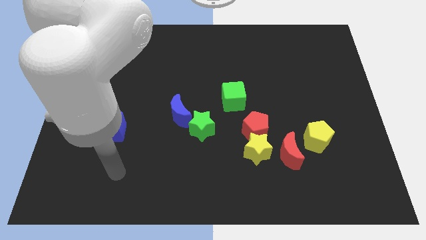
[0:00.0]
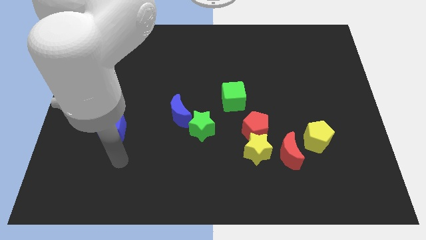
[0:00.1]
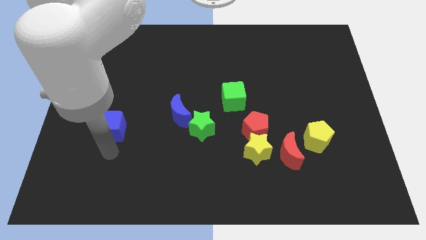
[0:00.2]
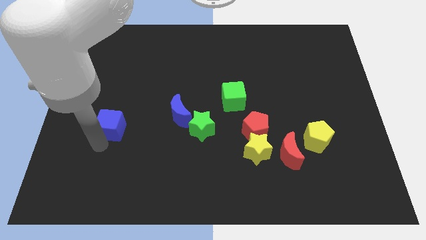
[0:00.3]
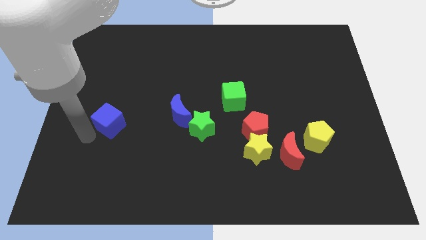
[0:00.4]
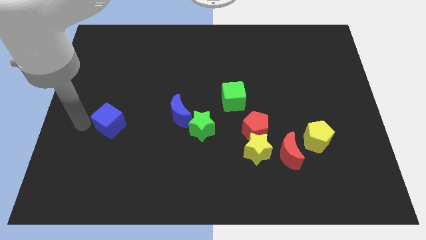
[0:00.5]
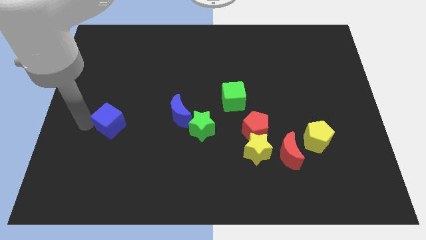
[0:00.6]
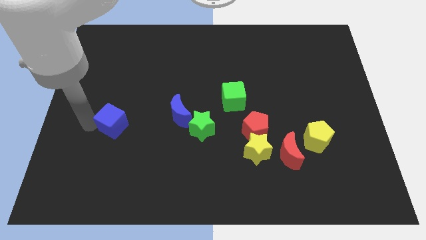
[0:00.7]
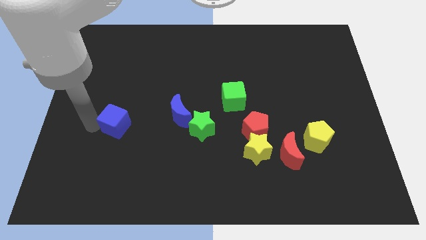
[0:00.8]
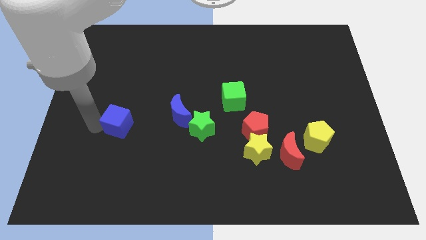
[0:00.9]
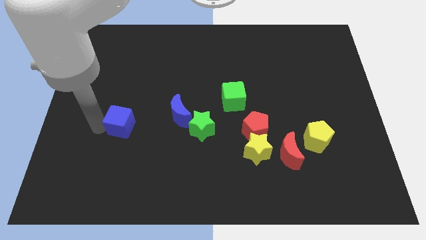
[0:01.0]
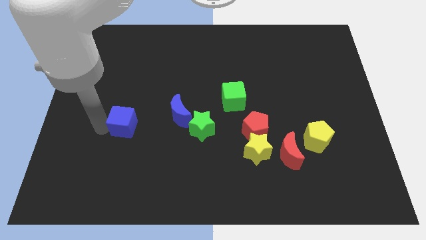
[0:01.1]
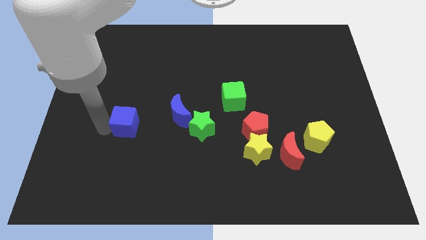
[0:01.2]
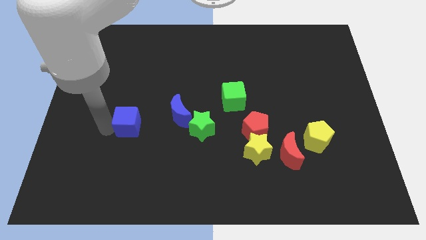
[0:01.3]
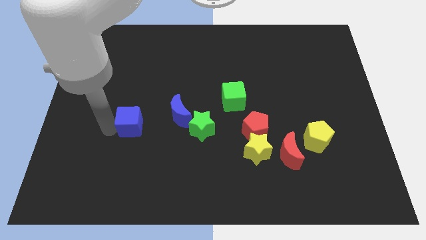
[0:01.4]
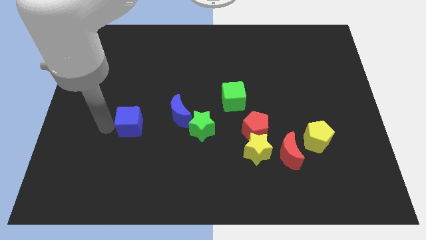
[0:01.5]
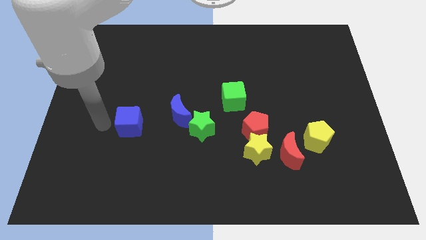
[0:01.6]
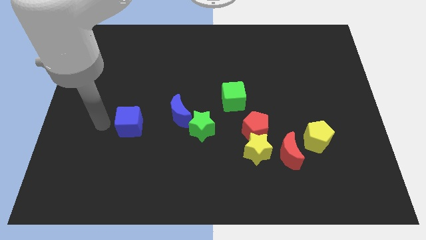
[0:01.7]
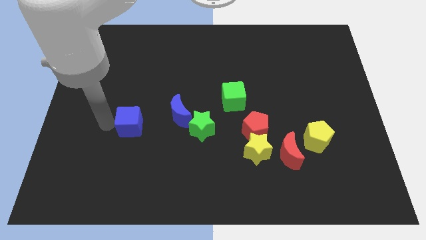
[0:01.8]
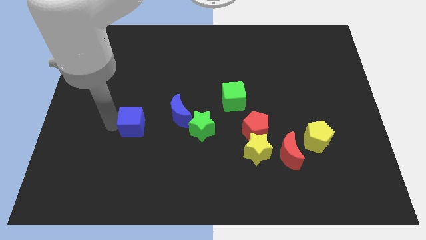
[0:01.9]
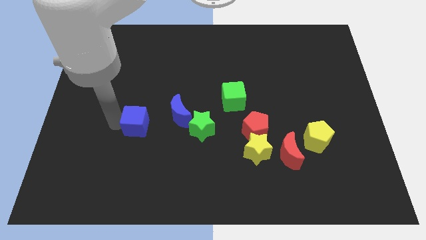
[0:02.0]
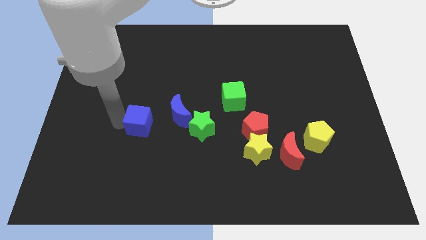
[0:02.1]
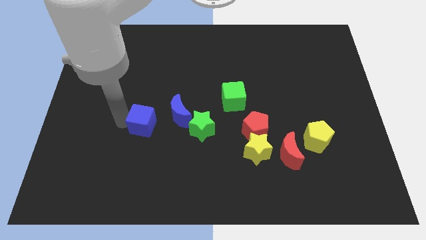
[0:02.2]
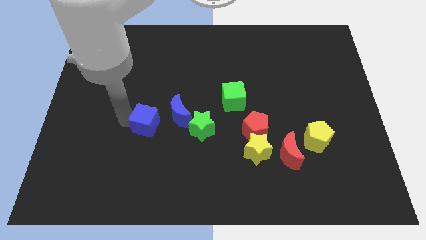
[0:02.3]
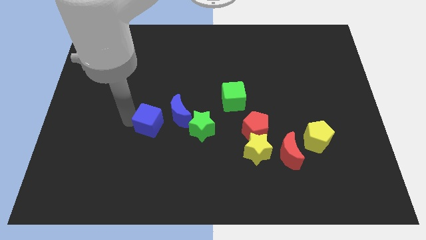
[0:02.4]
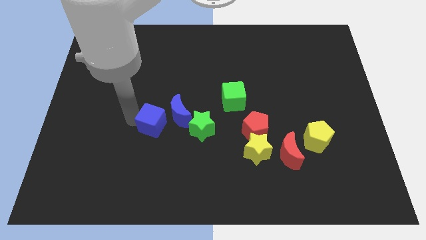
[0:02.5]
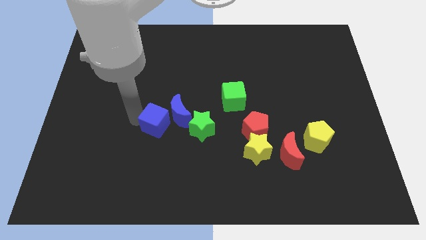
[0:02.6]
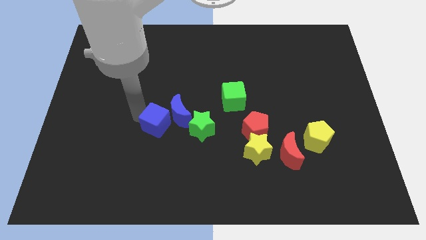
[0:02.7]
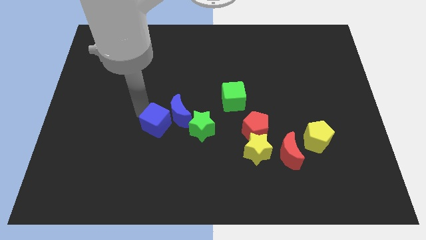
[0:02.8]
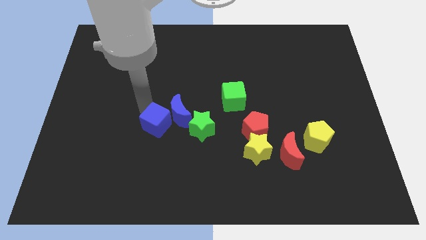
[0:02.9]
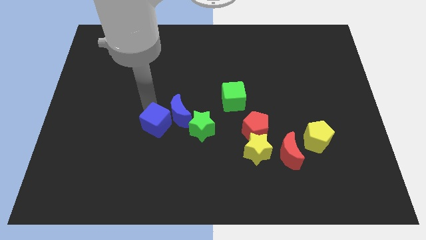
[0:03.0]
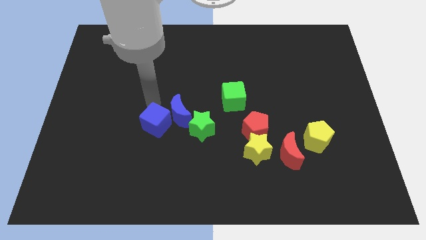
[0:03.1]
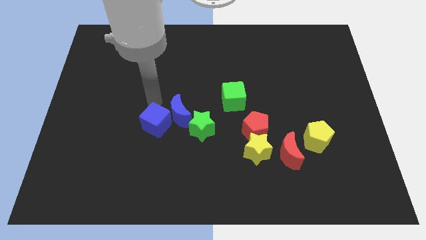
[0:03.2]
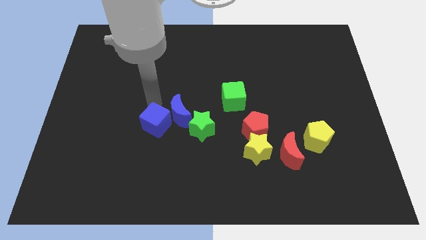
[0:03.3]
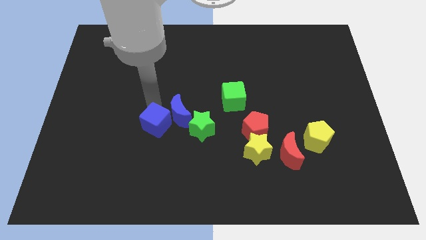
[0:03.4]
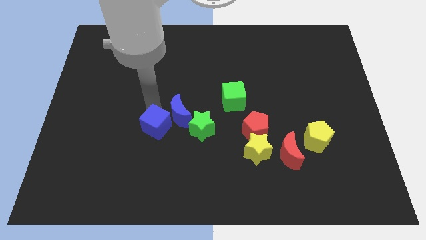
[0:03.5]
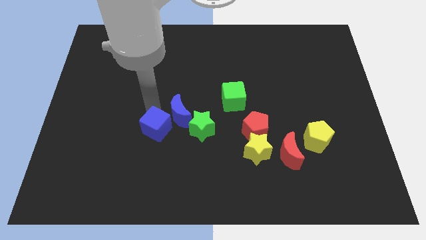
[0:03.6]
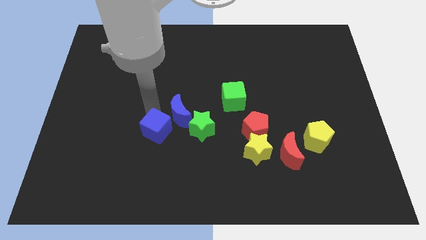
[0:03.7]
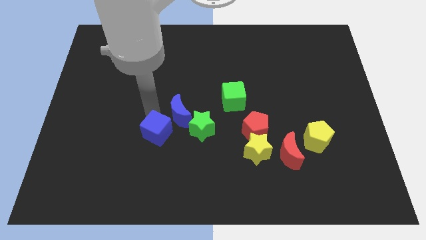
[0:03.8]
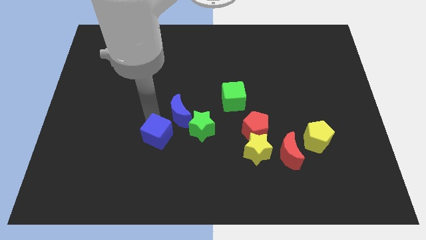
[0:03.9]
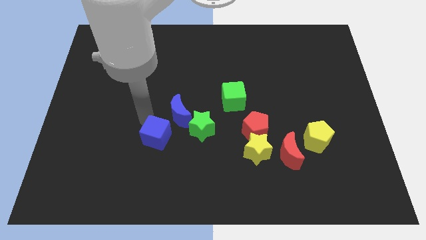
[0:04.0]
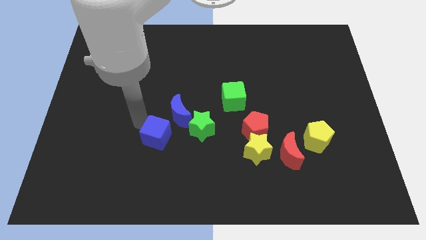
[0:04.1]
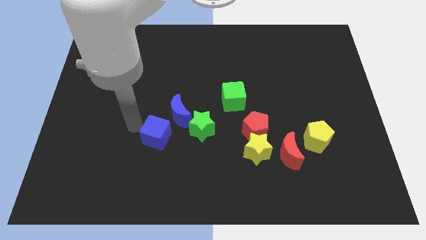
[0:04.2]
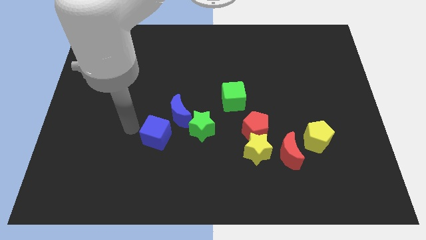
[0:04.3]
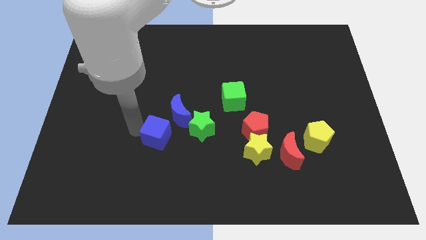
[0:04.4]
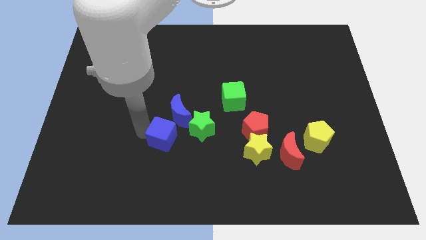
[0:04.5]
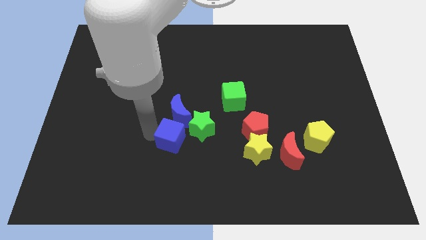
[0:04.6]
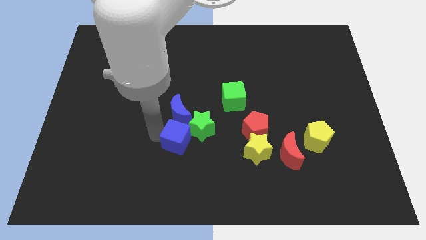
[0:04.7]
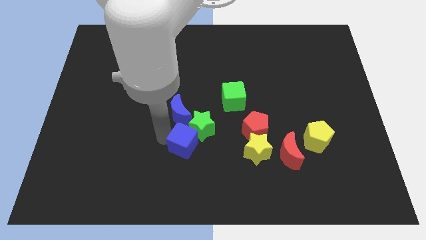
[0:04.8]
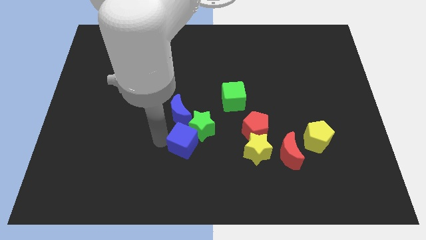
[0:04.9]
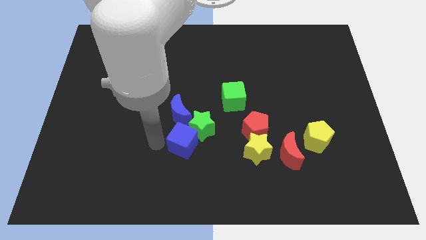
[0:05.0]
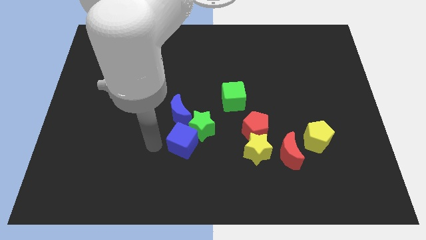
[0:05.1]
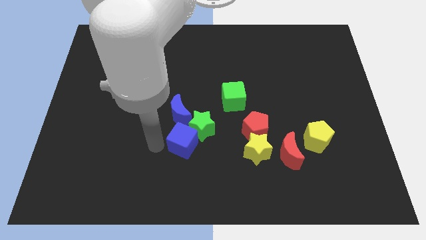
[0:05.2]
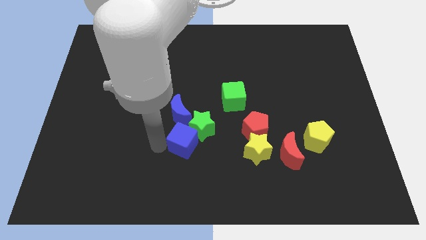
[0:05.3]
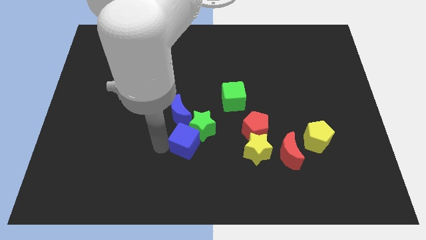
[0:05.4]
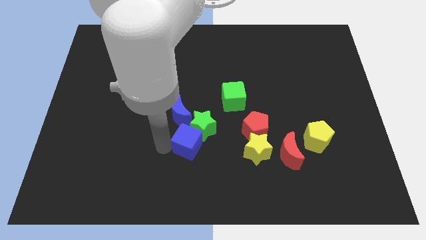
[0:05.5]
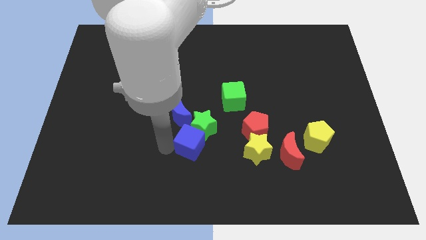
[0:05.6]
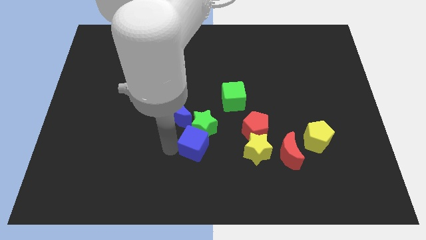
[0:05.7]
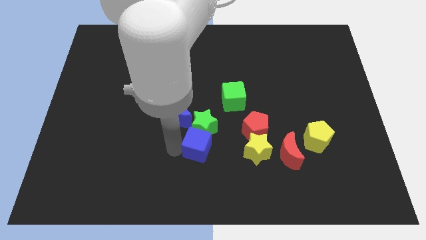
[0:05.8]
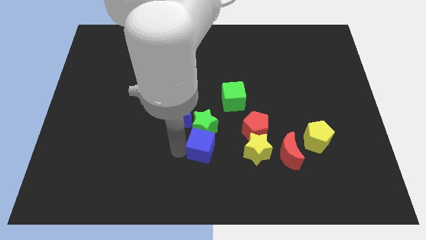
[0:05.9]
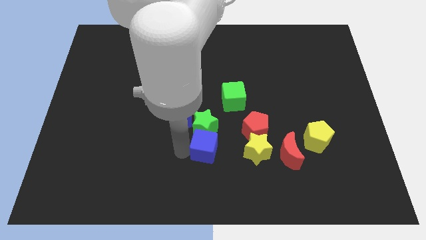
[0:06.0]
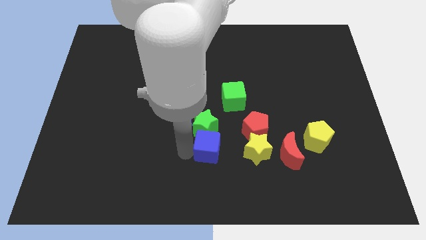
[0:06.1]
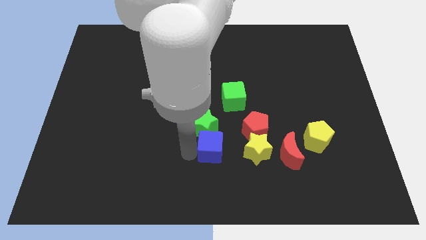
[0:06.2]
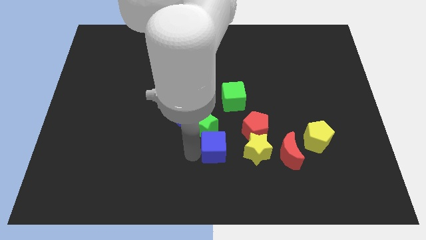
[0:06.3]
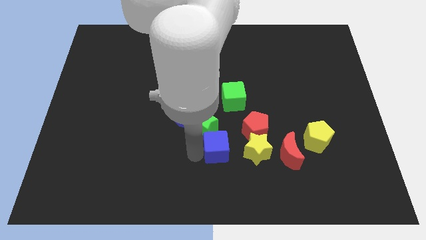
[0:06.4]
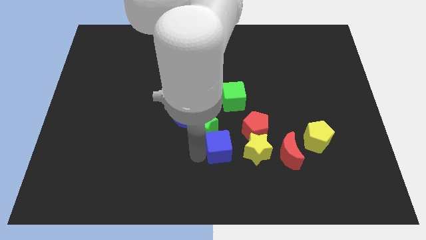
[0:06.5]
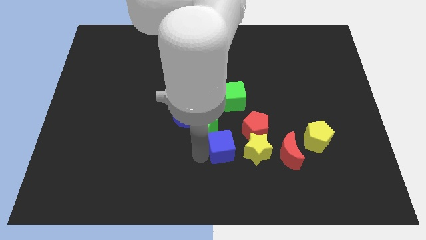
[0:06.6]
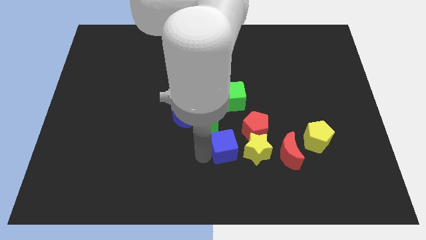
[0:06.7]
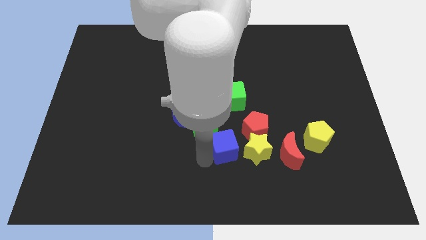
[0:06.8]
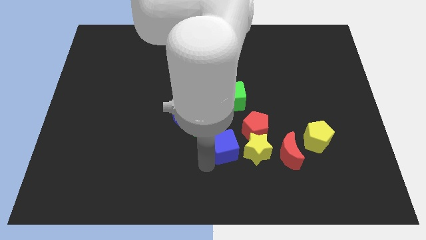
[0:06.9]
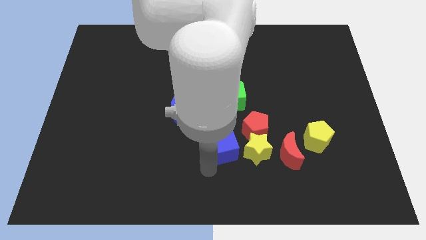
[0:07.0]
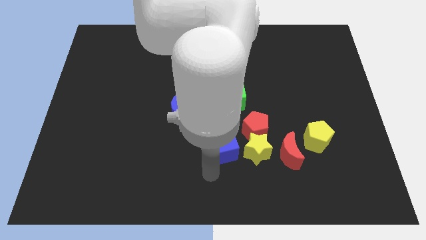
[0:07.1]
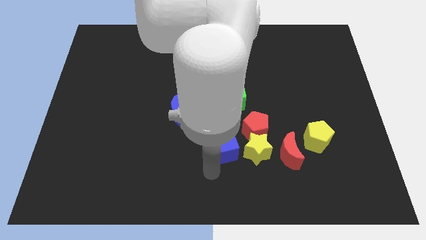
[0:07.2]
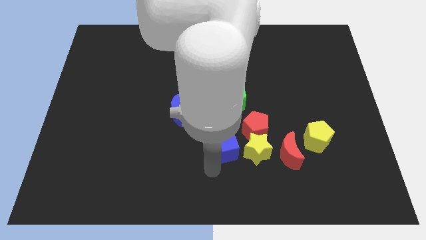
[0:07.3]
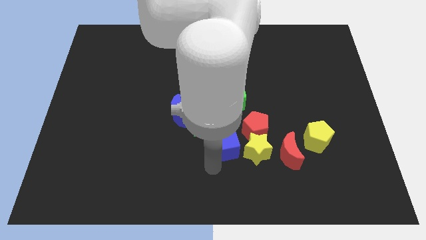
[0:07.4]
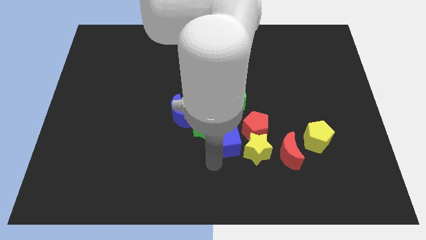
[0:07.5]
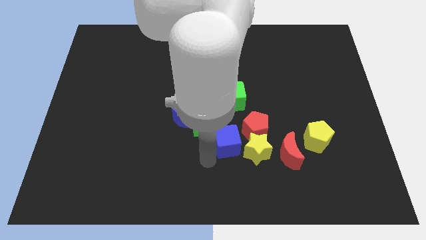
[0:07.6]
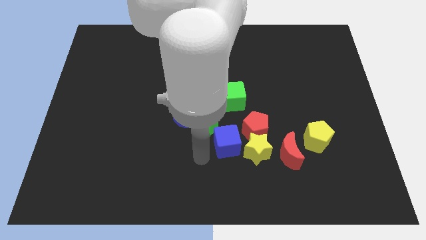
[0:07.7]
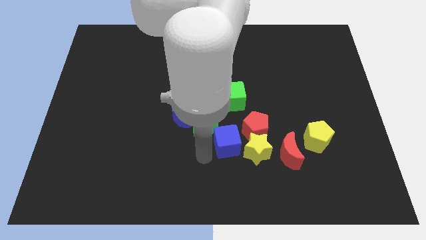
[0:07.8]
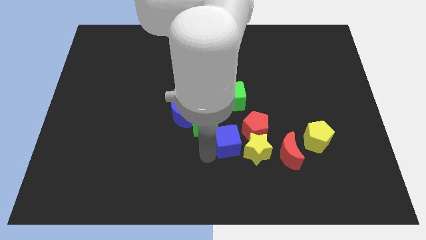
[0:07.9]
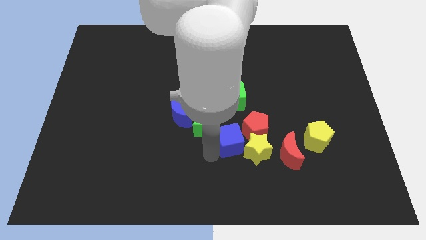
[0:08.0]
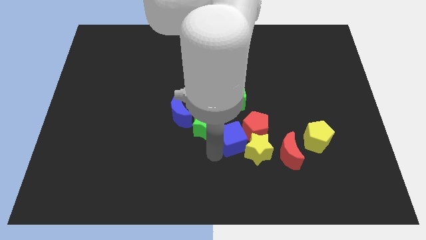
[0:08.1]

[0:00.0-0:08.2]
slide the blue cube towards the red pentagon
